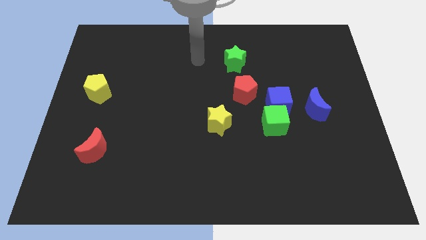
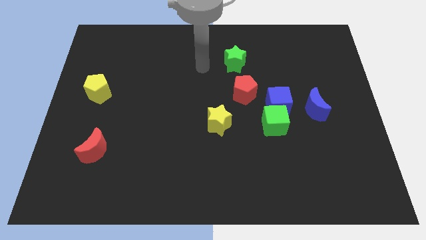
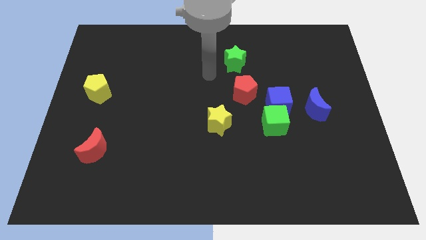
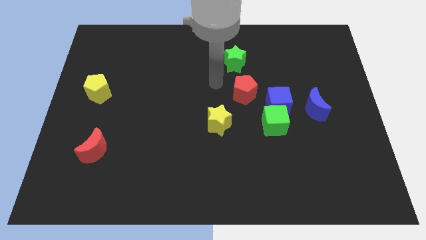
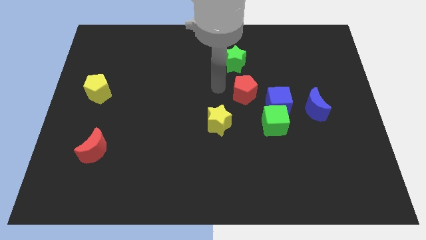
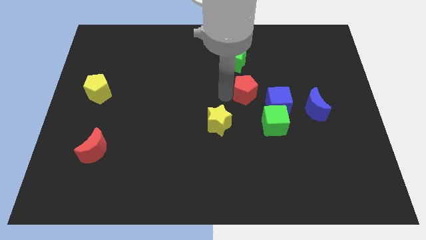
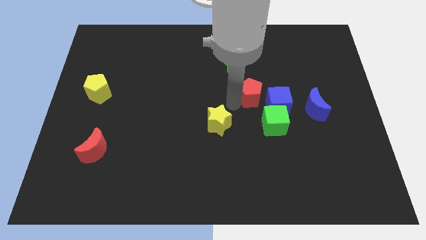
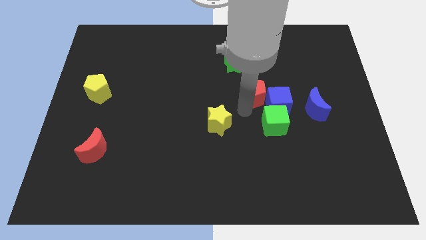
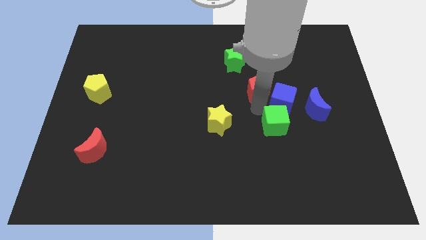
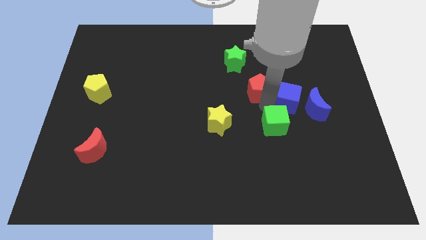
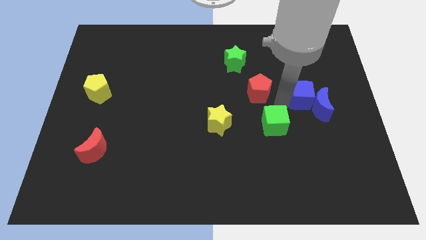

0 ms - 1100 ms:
pull the green cube apart from the blue cube

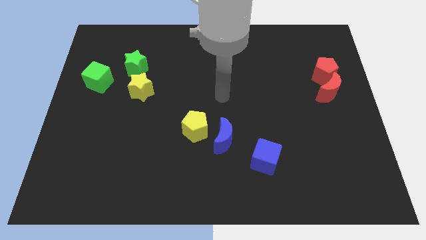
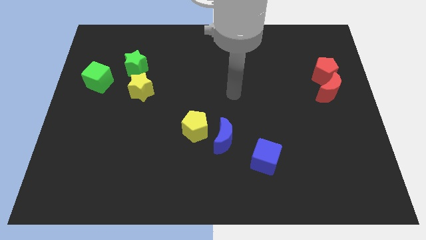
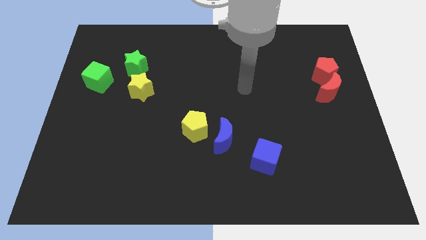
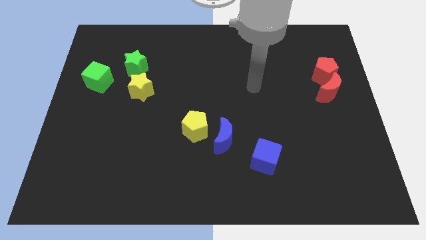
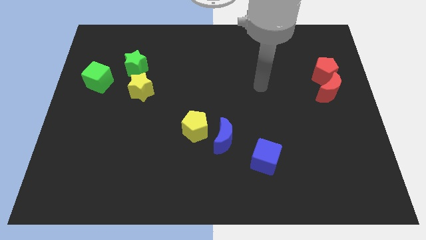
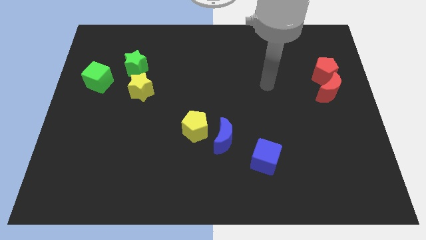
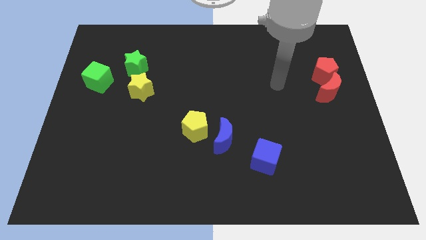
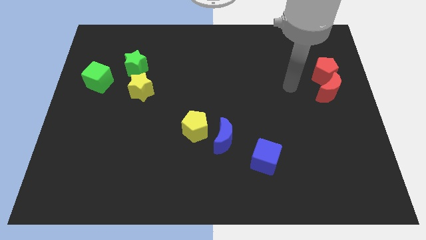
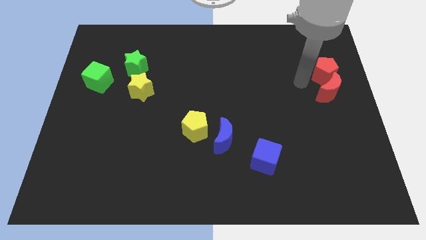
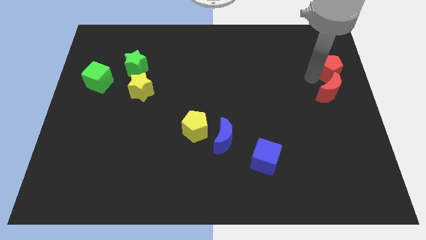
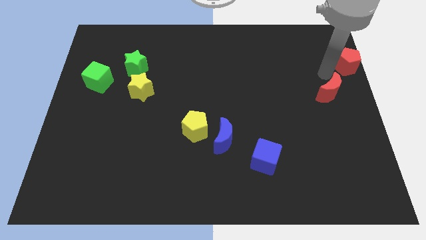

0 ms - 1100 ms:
move the red moon away from the red pentagon

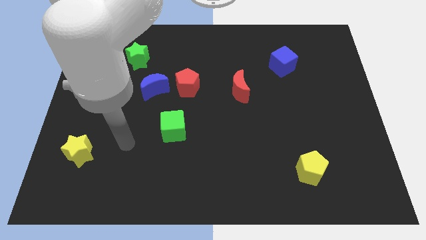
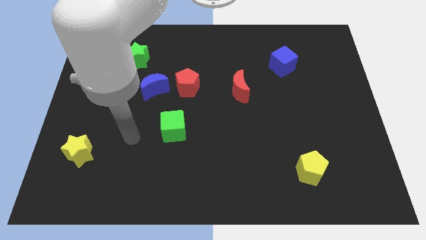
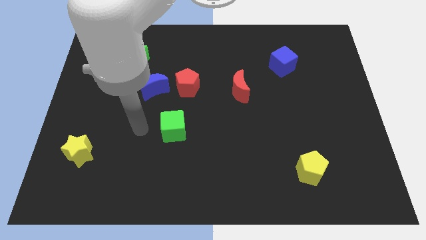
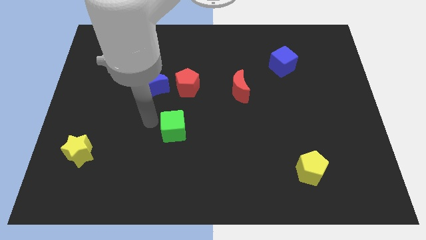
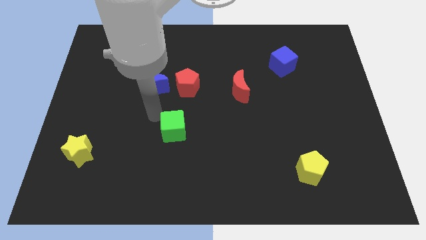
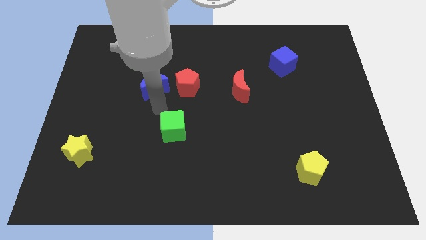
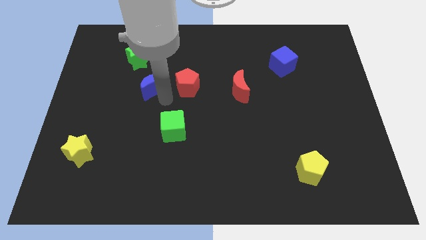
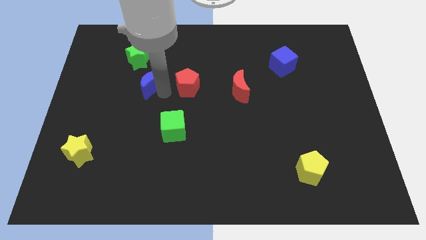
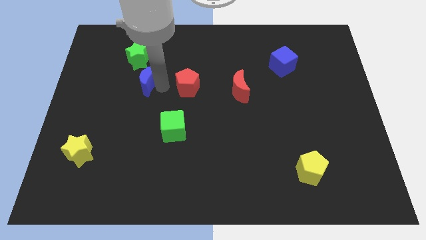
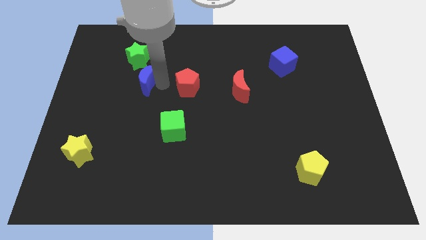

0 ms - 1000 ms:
move the red pentagon away from the blue moon

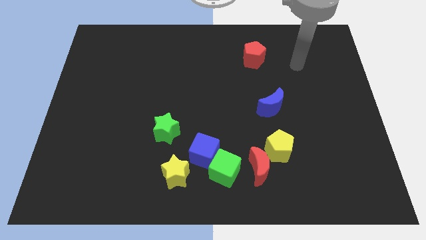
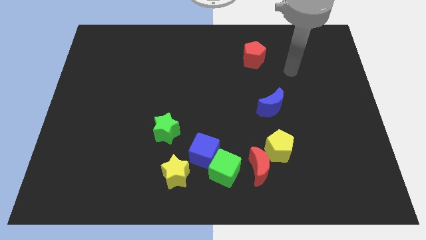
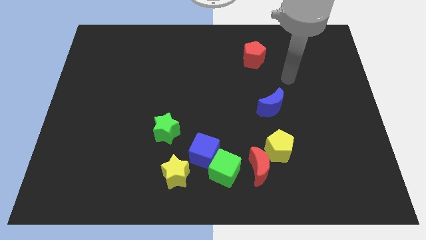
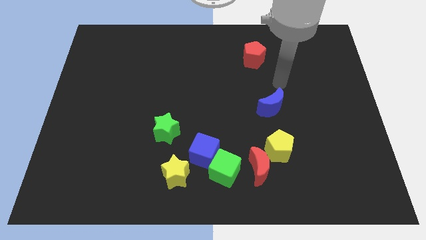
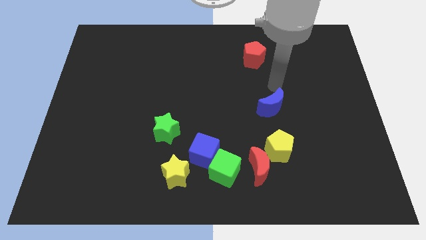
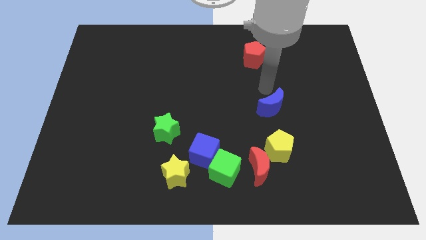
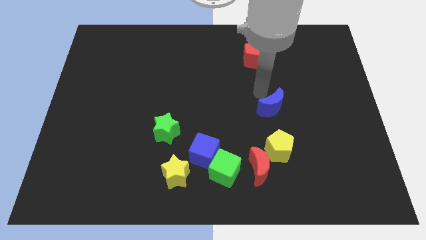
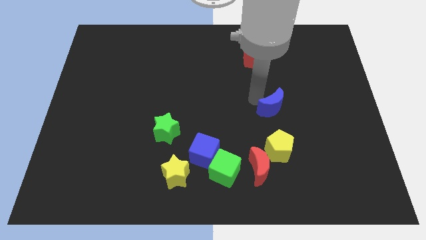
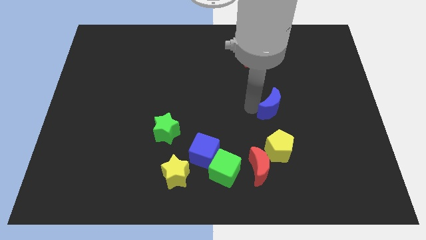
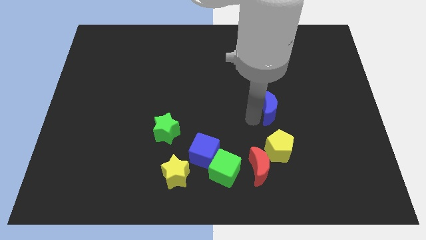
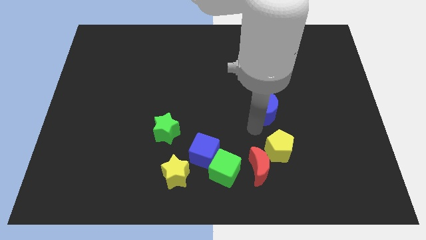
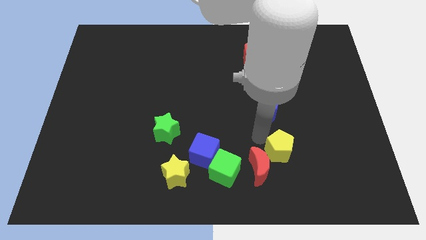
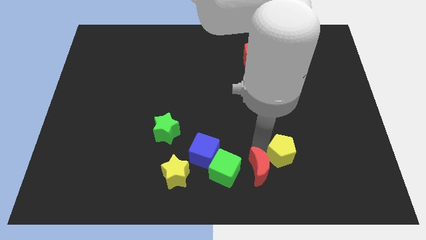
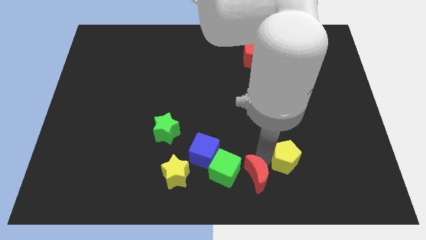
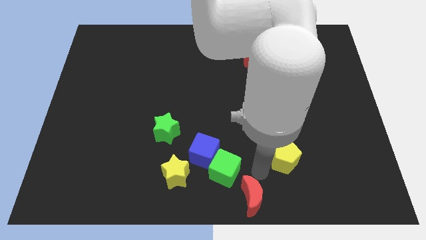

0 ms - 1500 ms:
separate the yellow pentagon from the red moon

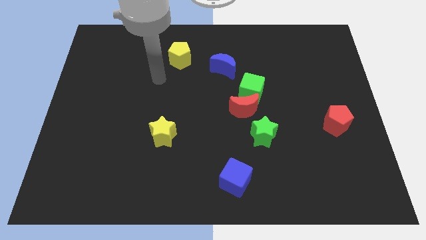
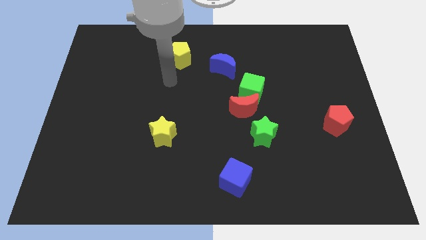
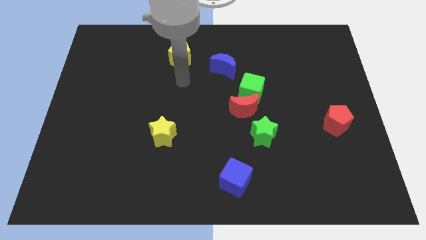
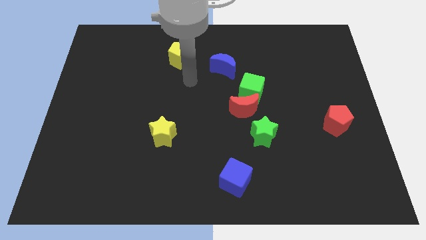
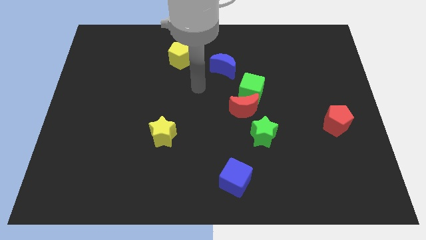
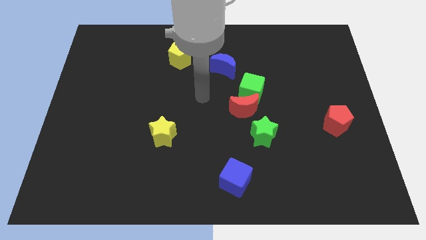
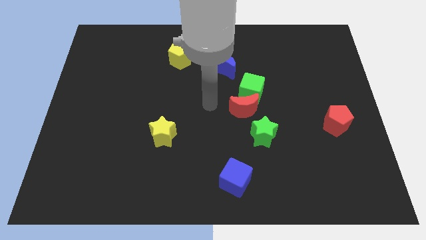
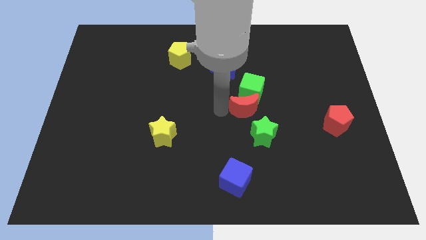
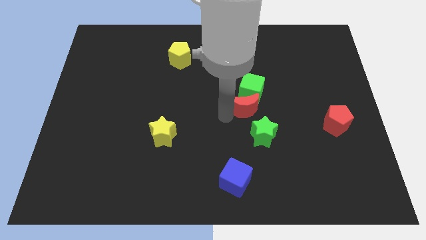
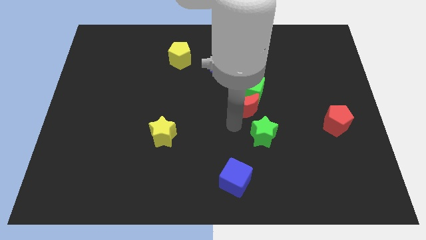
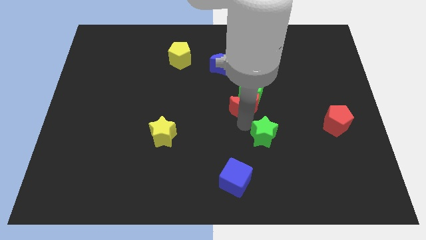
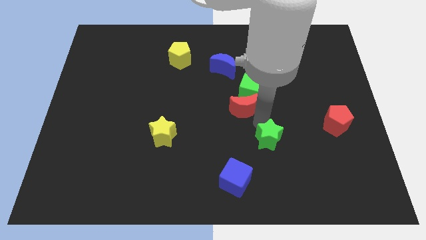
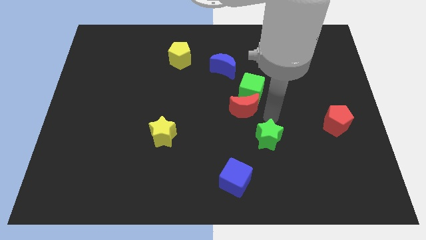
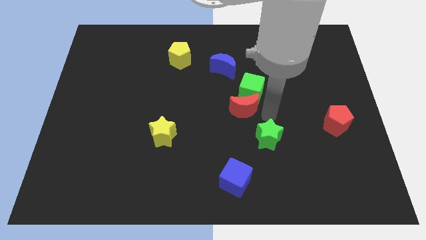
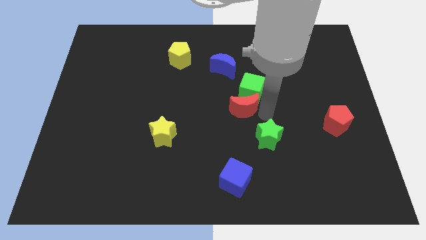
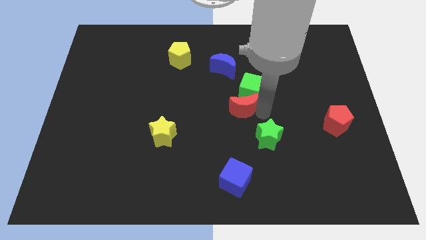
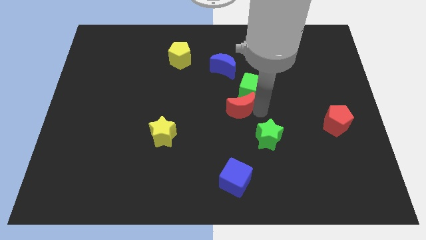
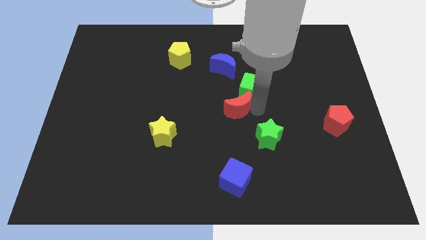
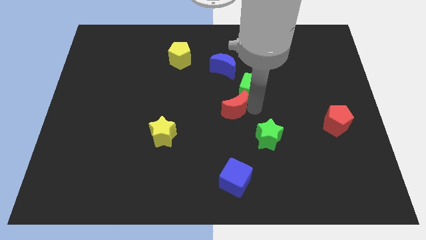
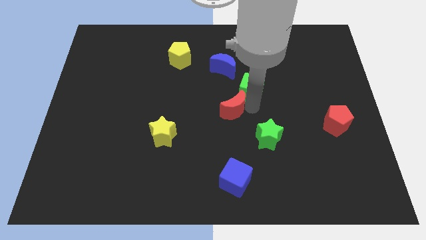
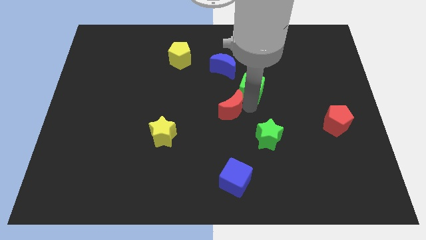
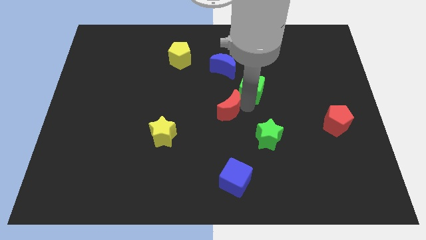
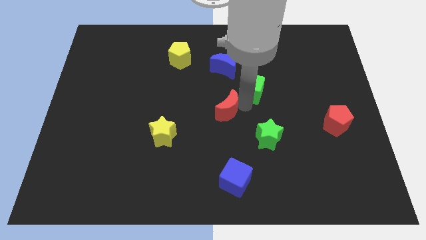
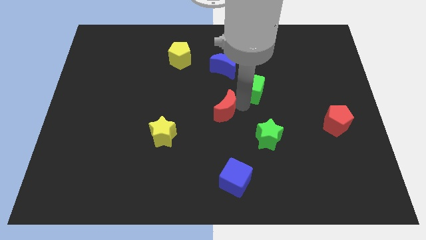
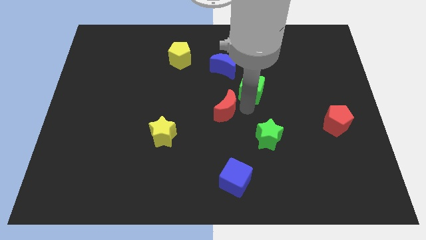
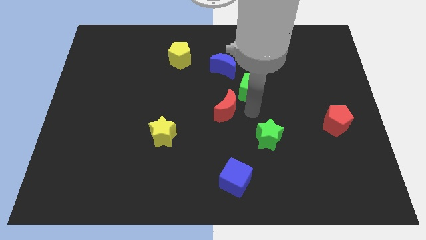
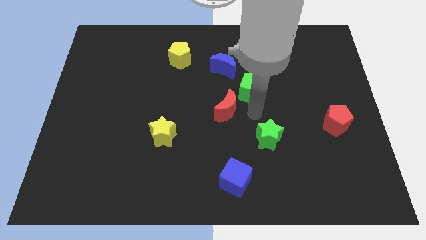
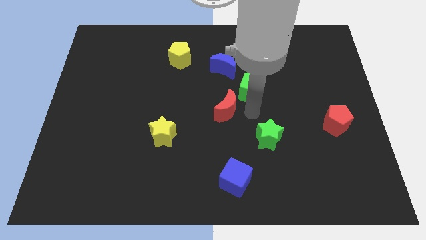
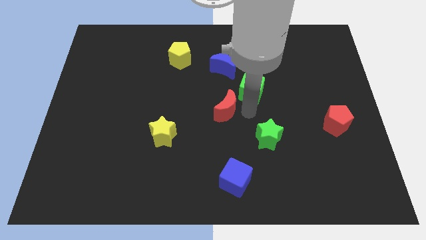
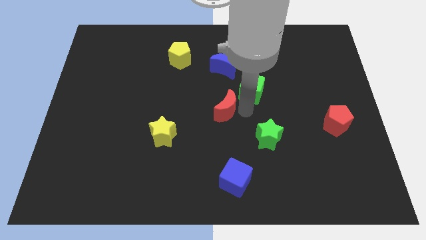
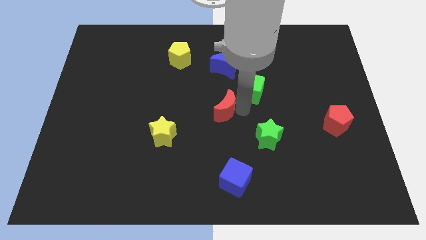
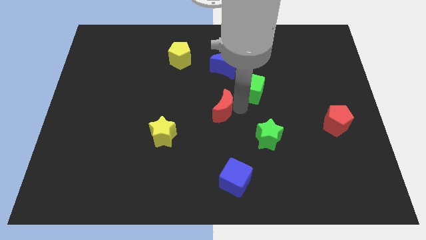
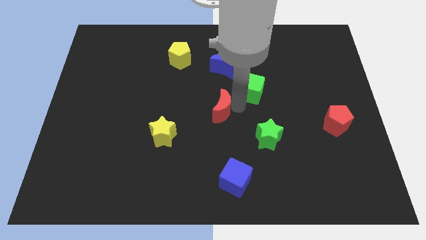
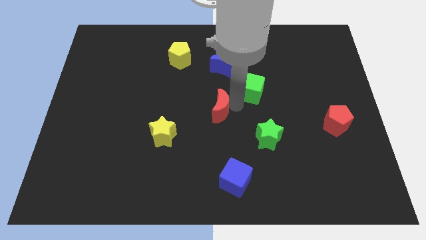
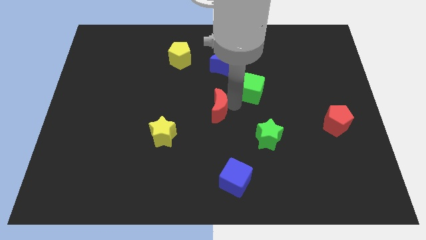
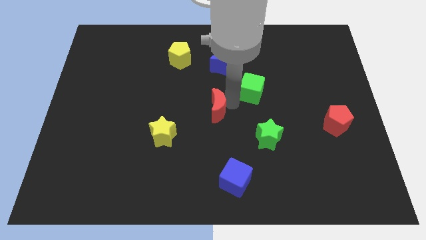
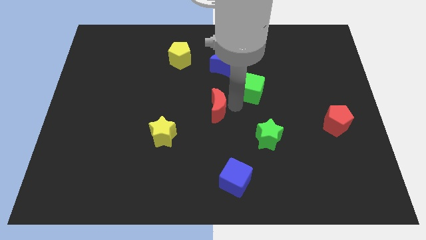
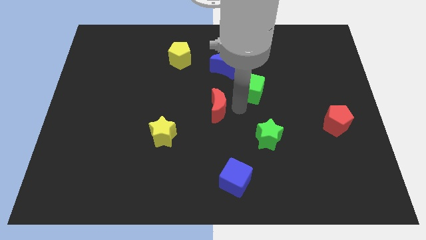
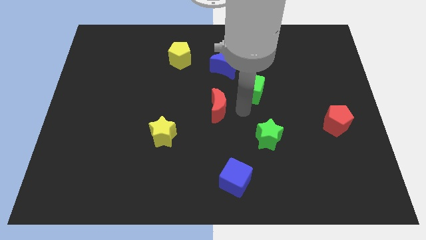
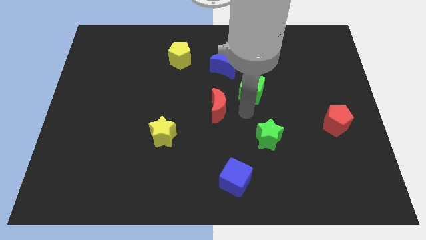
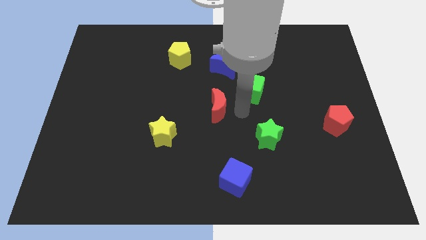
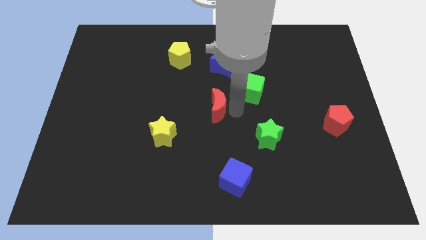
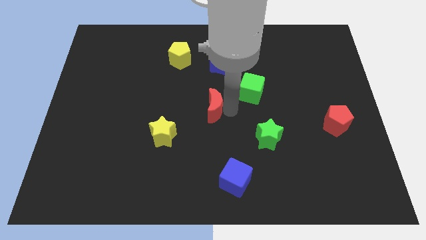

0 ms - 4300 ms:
separate the red moon from the green cube and green star

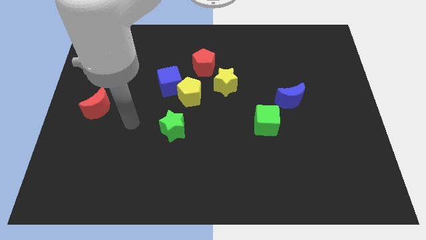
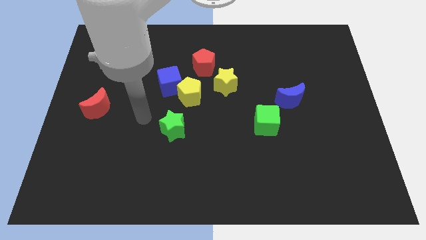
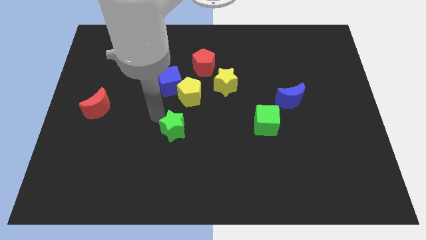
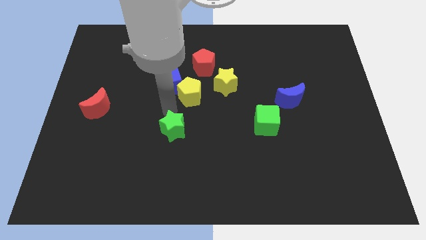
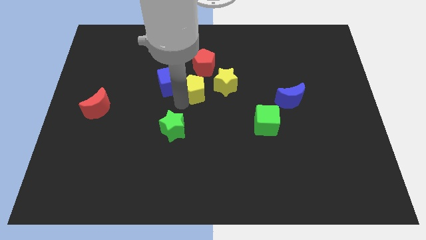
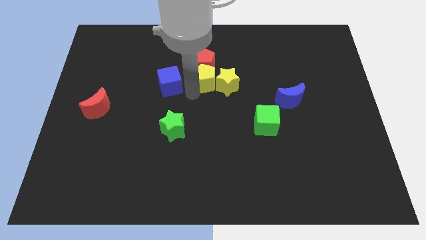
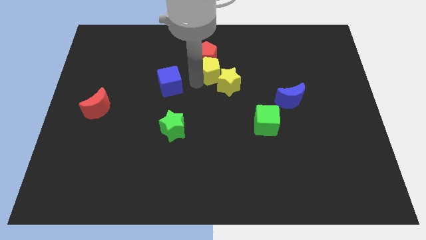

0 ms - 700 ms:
pull the blue cube apart from the yellow pentagon
